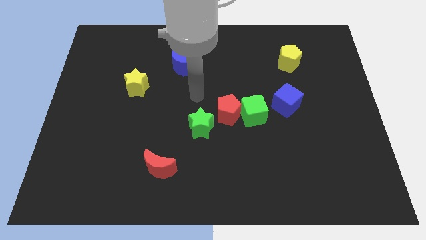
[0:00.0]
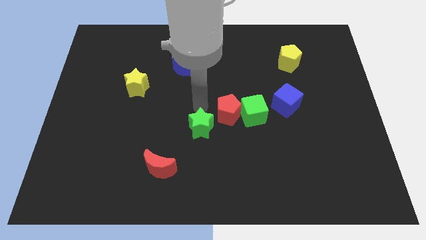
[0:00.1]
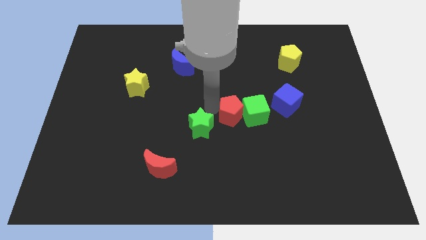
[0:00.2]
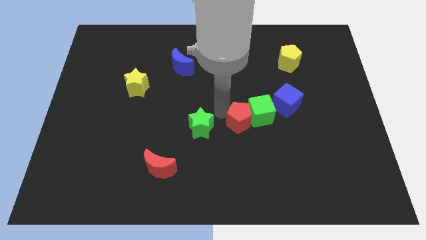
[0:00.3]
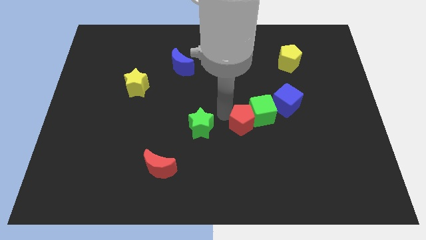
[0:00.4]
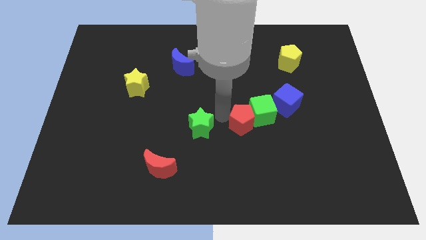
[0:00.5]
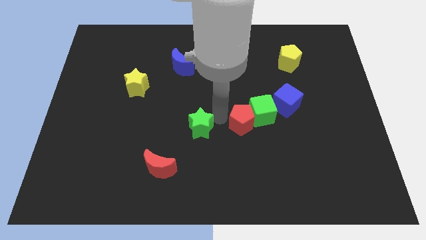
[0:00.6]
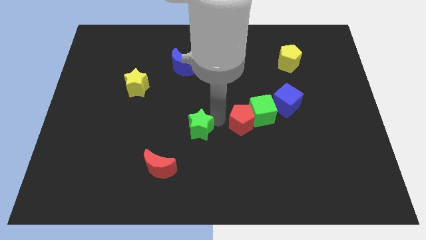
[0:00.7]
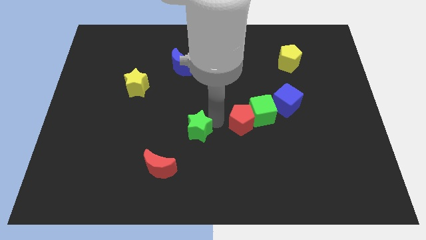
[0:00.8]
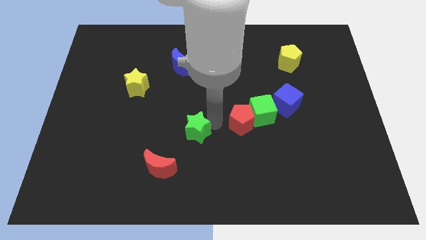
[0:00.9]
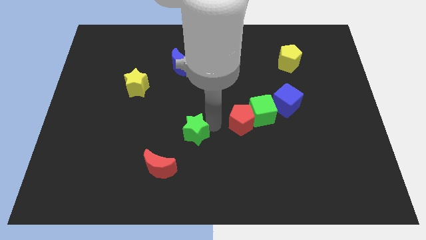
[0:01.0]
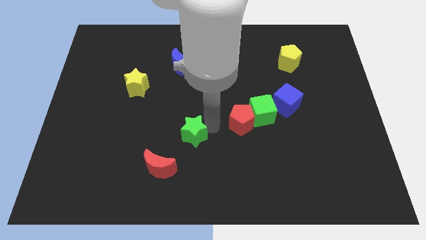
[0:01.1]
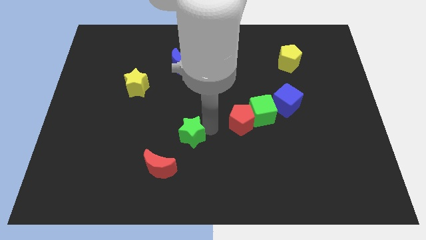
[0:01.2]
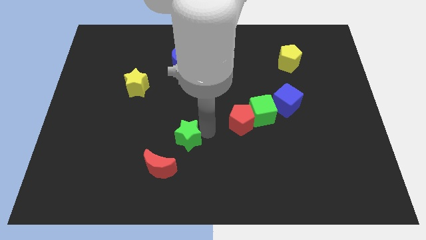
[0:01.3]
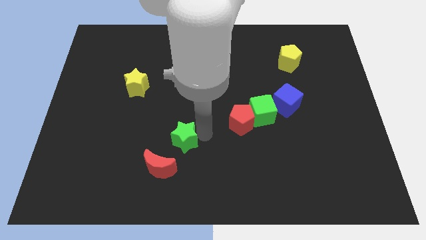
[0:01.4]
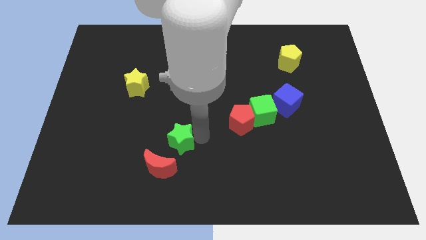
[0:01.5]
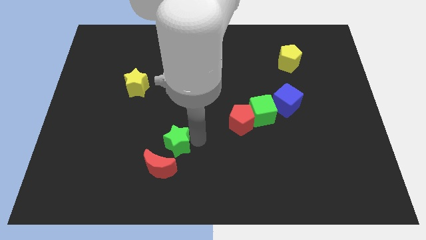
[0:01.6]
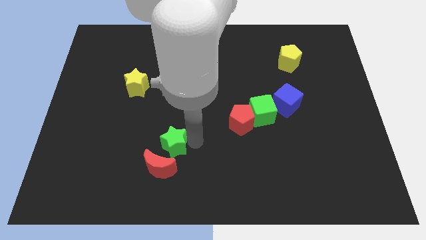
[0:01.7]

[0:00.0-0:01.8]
move the green star a little bit downwards and then to the left

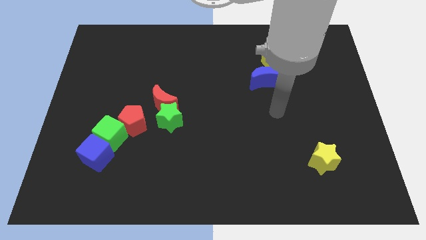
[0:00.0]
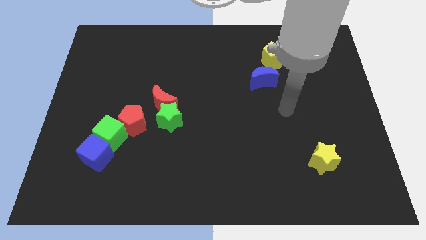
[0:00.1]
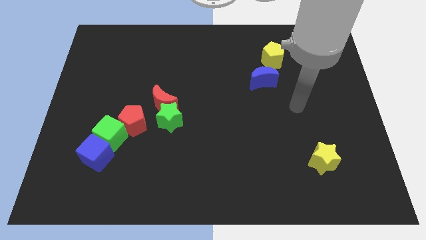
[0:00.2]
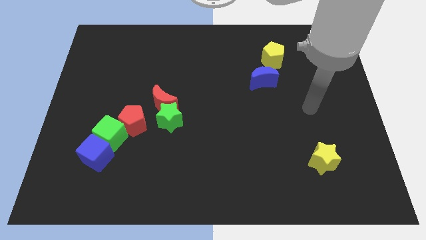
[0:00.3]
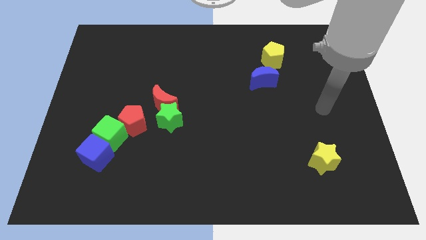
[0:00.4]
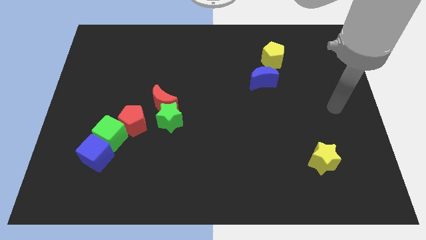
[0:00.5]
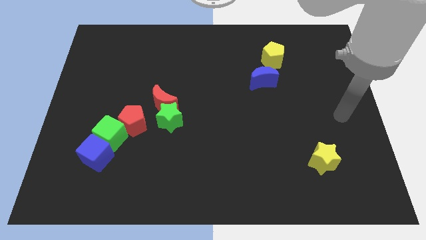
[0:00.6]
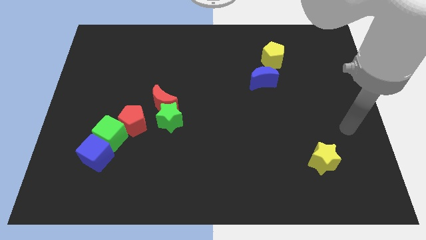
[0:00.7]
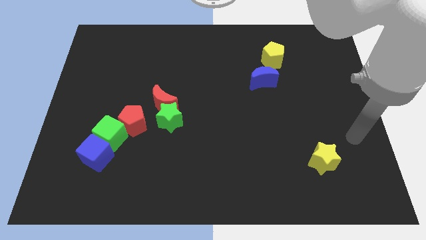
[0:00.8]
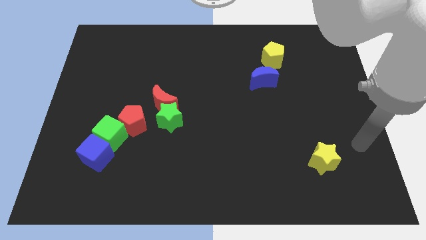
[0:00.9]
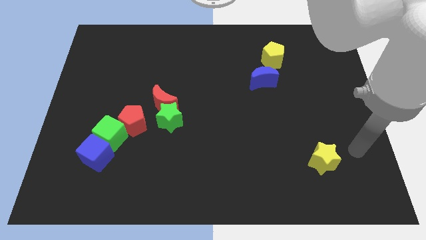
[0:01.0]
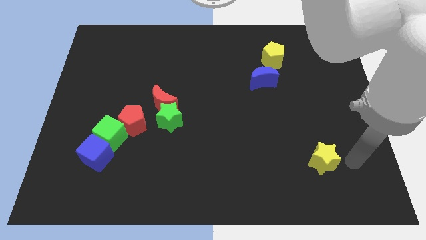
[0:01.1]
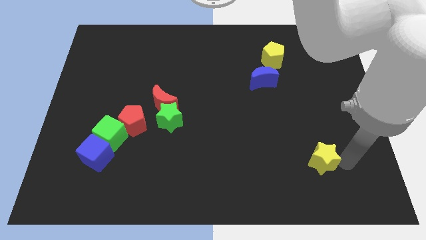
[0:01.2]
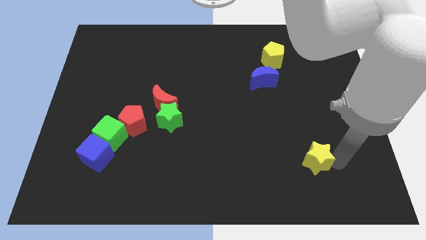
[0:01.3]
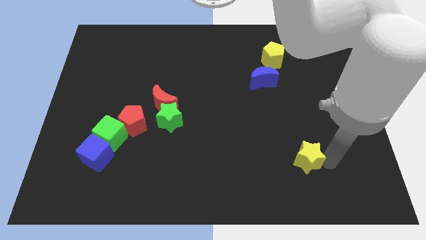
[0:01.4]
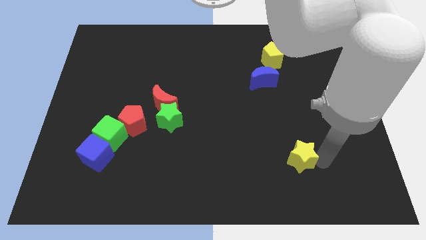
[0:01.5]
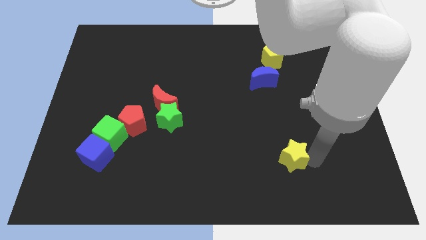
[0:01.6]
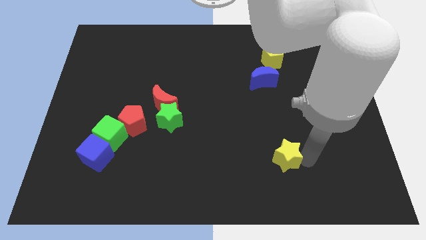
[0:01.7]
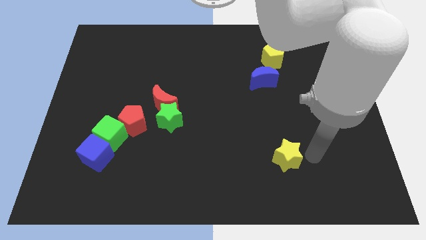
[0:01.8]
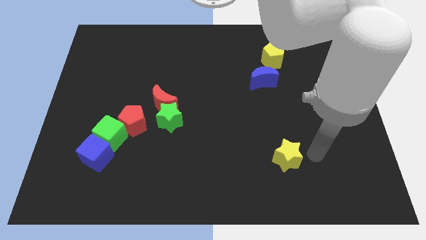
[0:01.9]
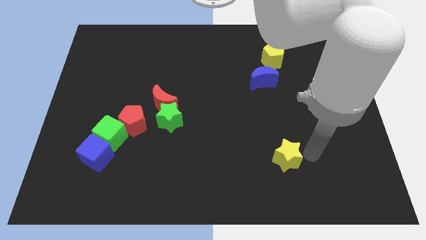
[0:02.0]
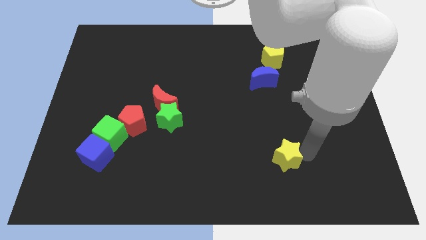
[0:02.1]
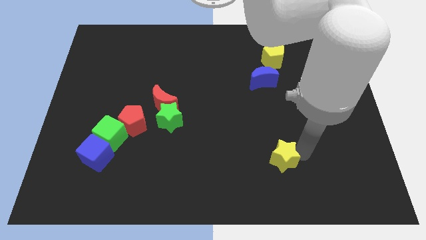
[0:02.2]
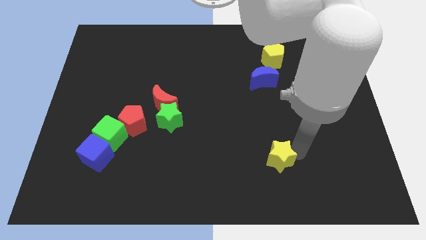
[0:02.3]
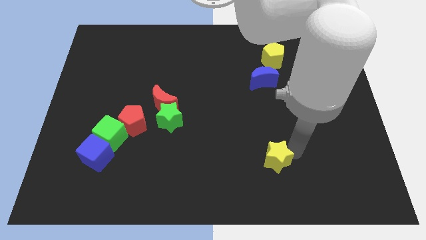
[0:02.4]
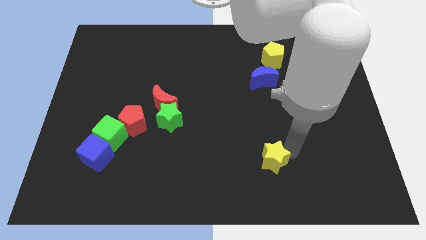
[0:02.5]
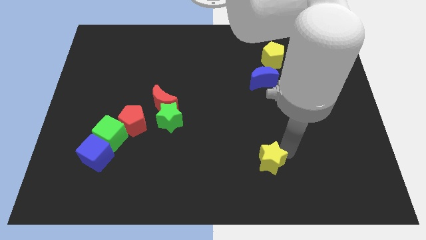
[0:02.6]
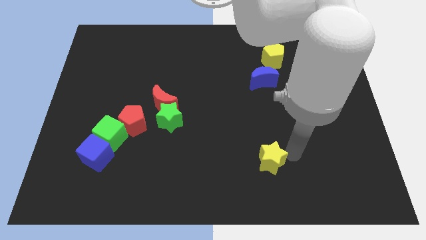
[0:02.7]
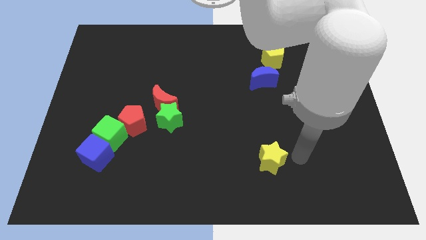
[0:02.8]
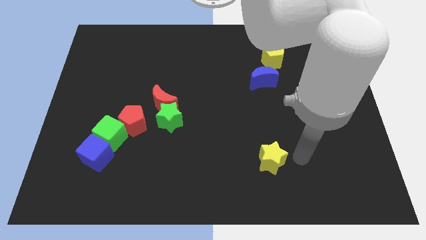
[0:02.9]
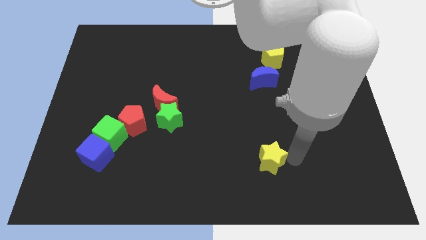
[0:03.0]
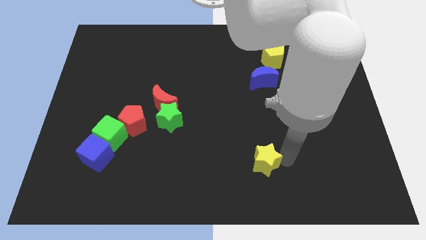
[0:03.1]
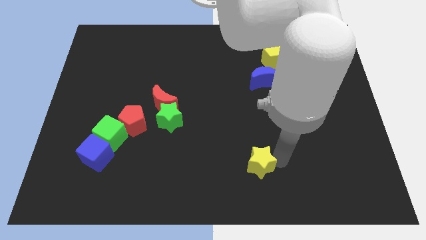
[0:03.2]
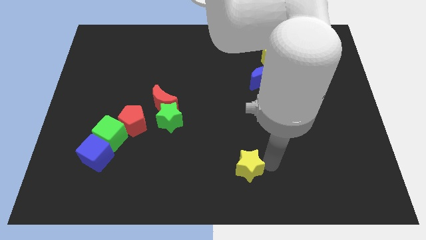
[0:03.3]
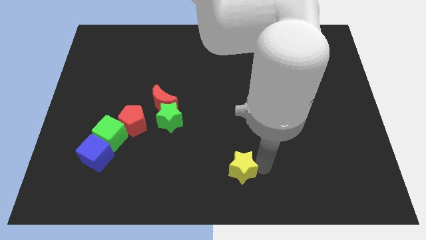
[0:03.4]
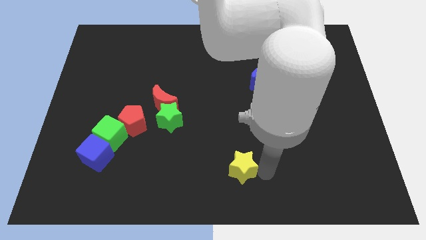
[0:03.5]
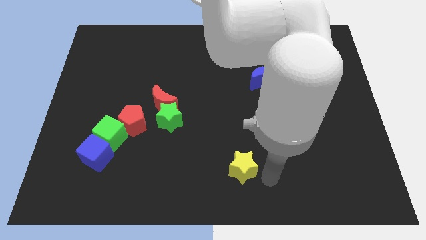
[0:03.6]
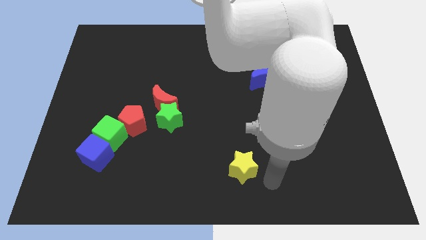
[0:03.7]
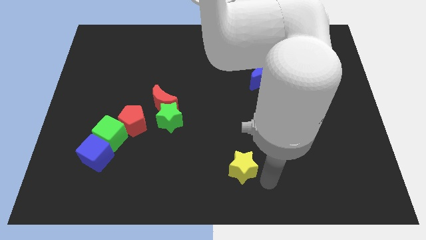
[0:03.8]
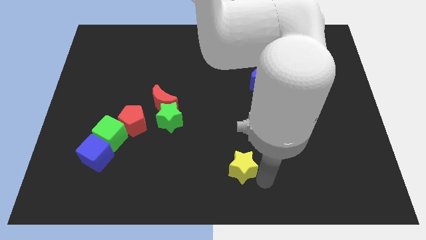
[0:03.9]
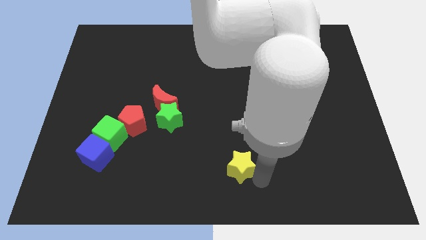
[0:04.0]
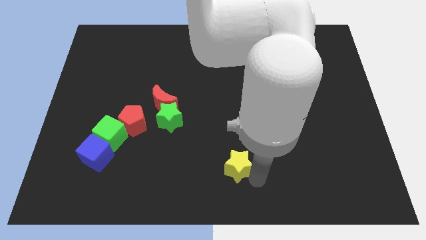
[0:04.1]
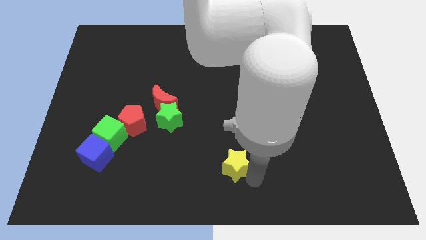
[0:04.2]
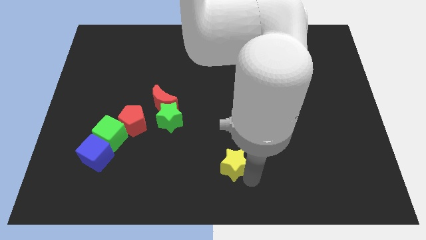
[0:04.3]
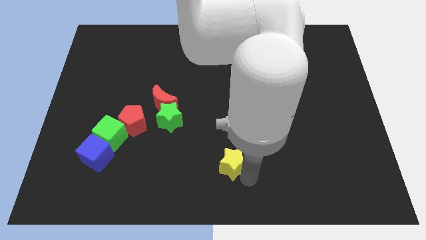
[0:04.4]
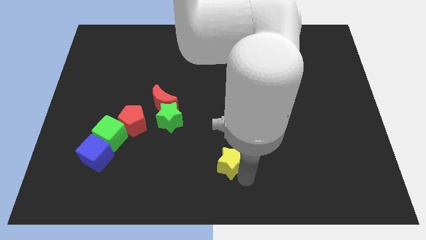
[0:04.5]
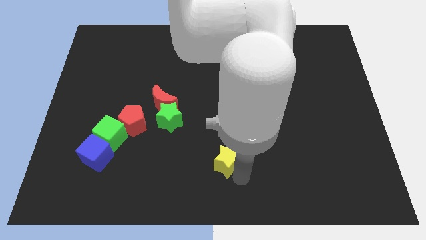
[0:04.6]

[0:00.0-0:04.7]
move the yellow star left

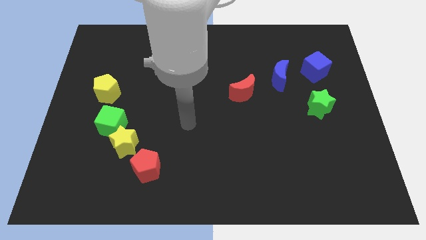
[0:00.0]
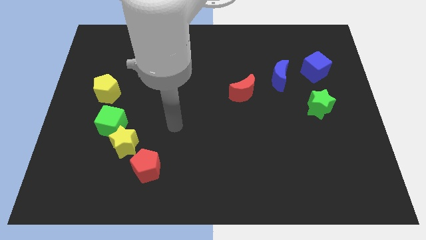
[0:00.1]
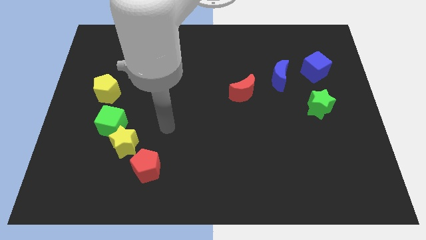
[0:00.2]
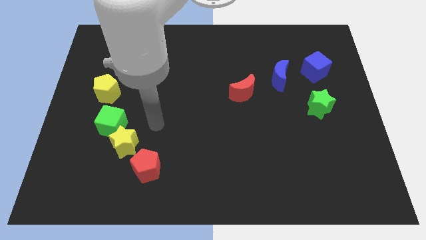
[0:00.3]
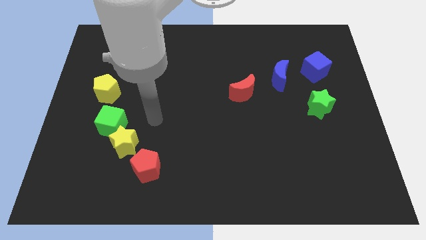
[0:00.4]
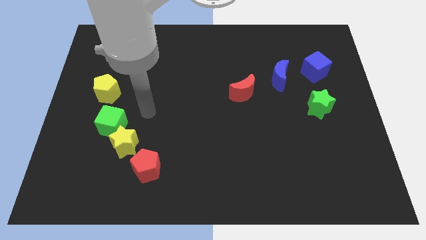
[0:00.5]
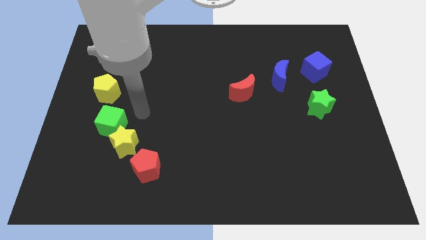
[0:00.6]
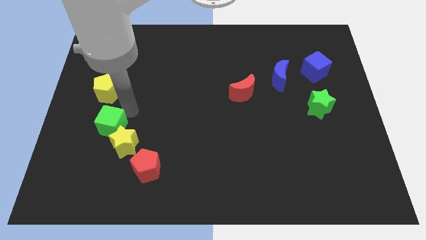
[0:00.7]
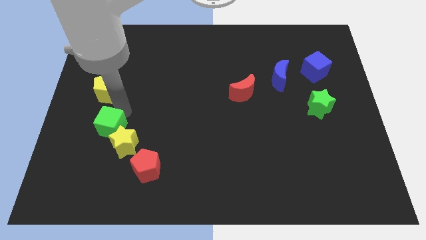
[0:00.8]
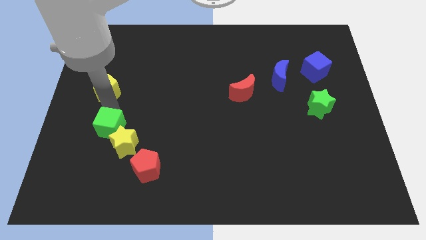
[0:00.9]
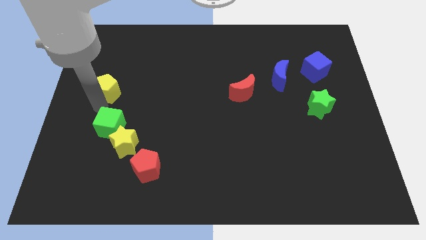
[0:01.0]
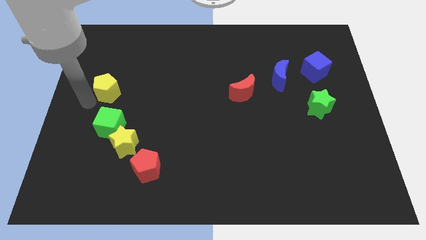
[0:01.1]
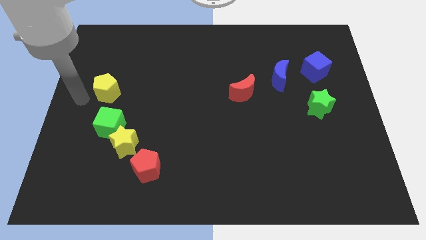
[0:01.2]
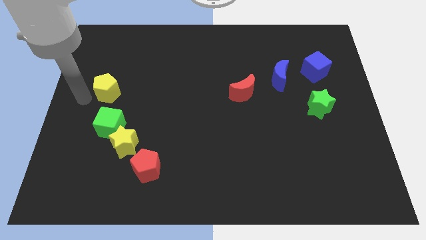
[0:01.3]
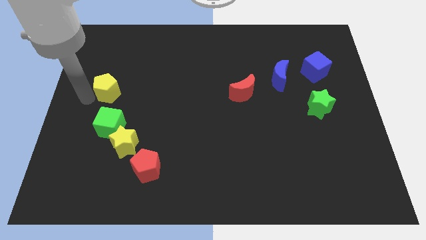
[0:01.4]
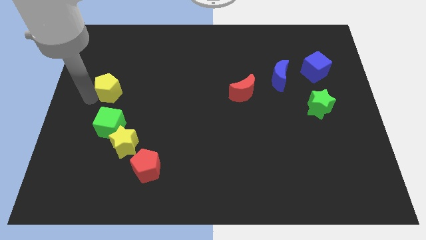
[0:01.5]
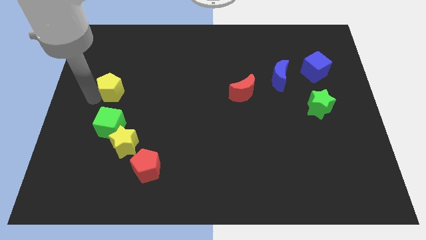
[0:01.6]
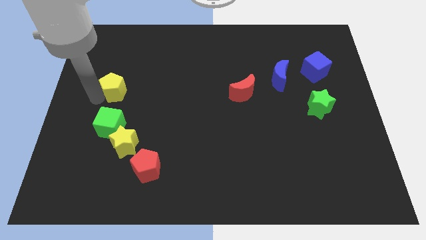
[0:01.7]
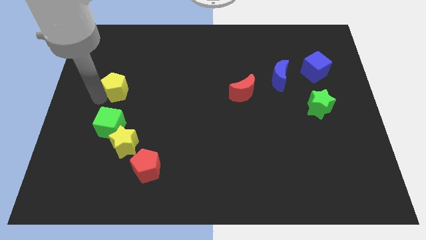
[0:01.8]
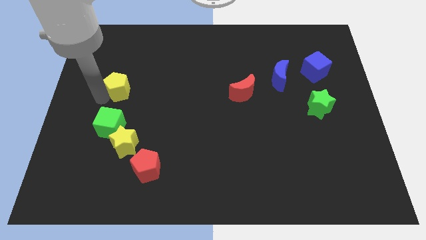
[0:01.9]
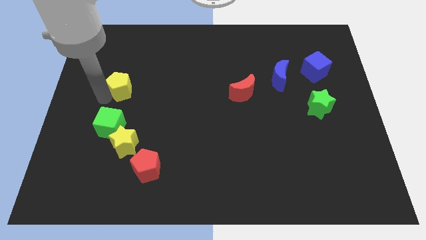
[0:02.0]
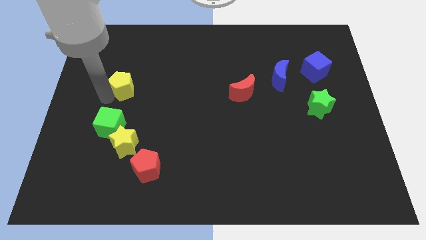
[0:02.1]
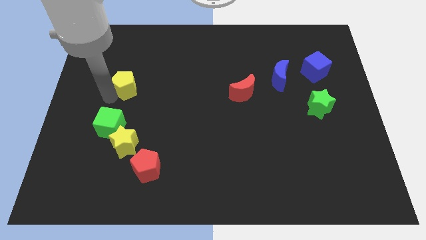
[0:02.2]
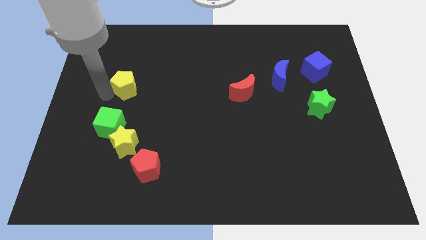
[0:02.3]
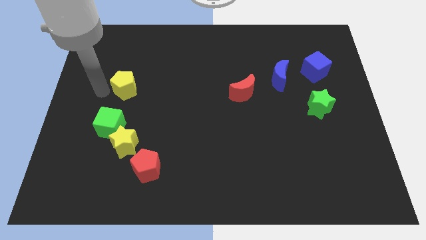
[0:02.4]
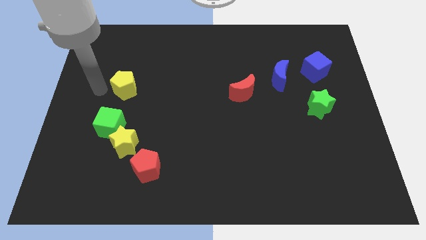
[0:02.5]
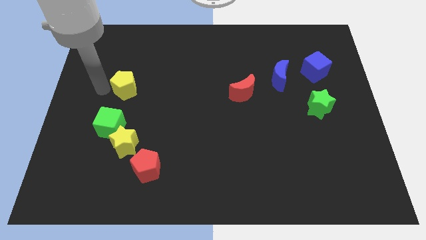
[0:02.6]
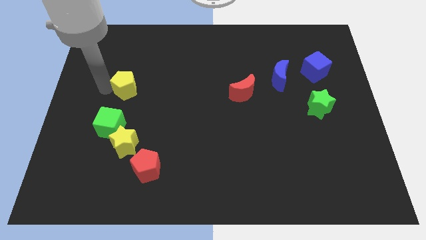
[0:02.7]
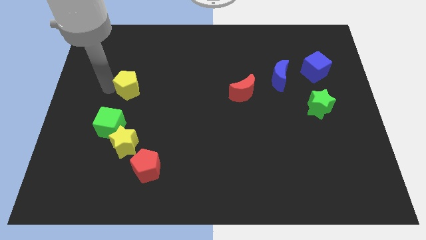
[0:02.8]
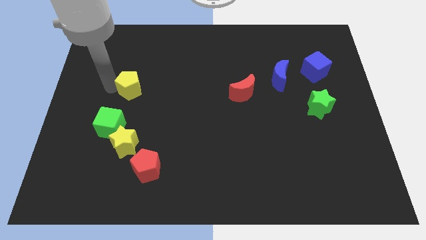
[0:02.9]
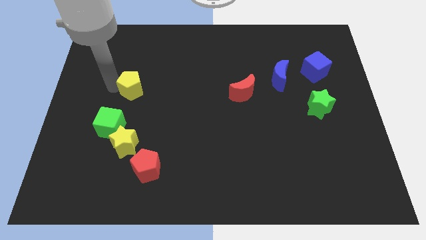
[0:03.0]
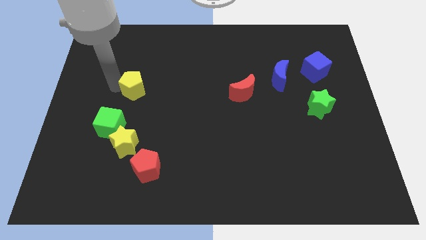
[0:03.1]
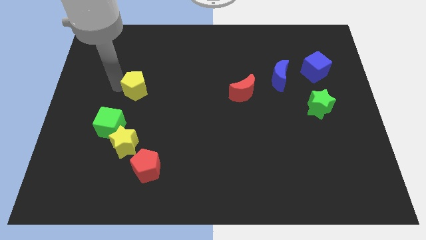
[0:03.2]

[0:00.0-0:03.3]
slightly move the yellow pentagon right
